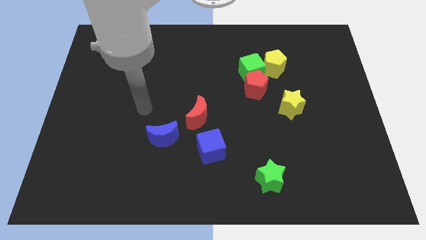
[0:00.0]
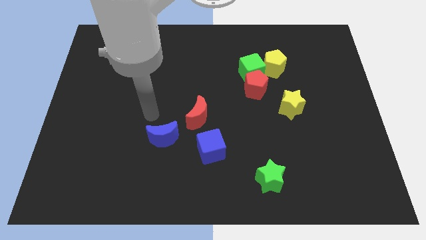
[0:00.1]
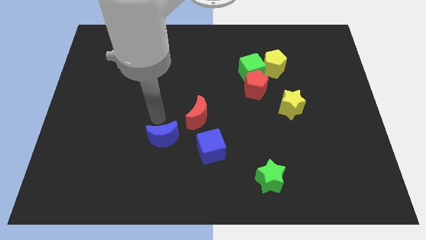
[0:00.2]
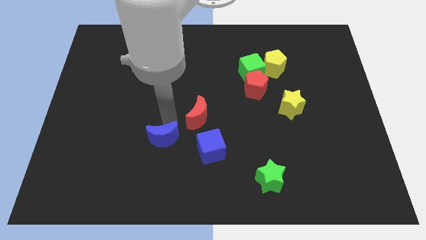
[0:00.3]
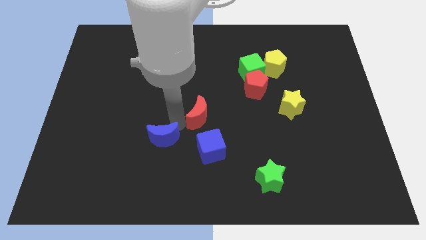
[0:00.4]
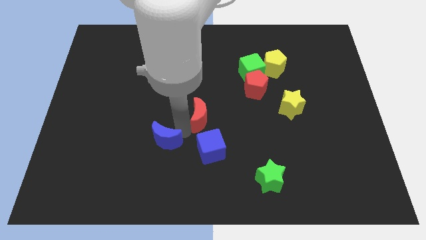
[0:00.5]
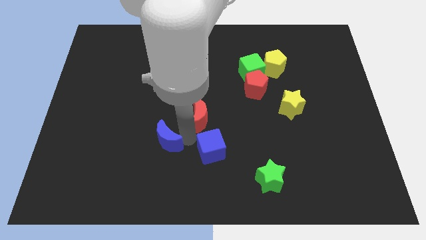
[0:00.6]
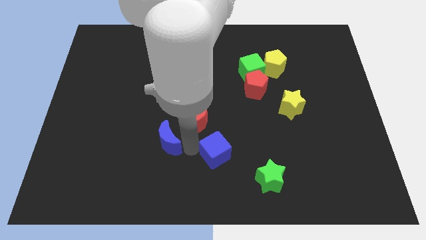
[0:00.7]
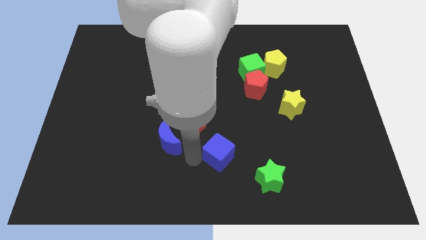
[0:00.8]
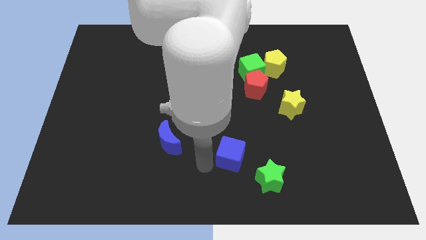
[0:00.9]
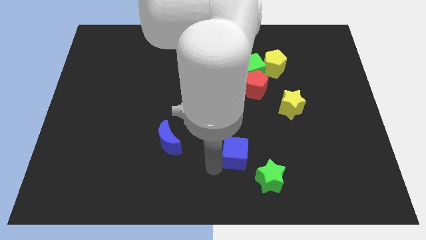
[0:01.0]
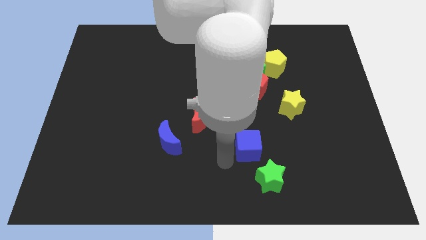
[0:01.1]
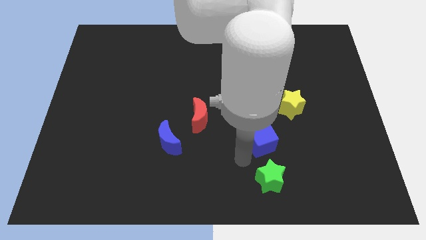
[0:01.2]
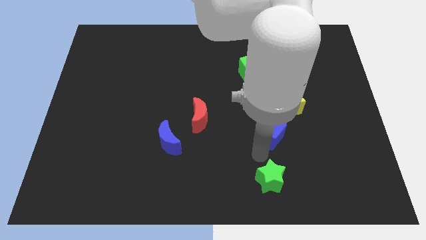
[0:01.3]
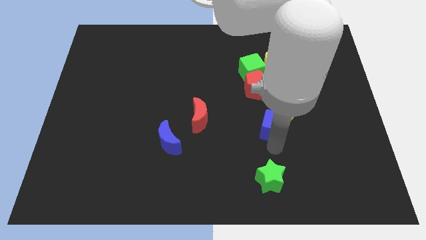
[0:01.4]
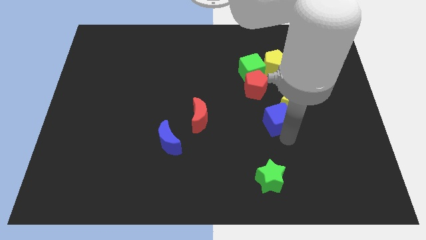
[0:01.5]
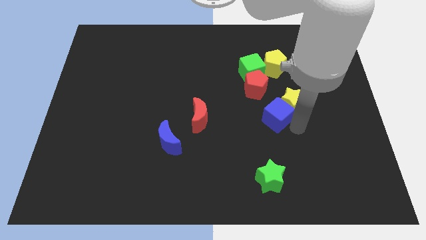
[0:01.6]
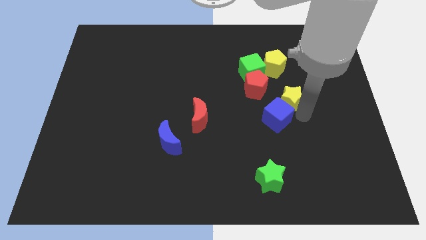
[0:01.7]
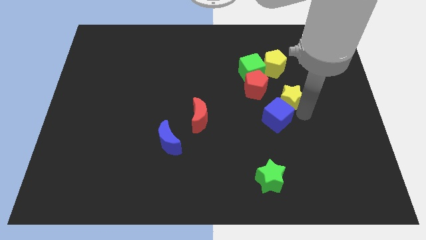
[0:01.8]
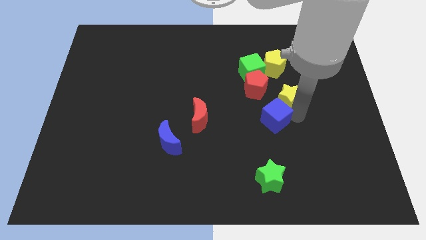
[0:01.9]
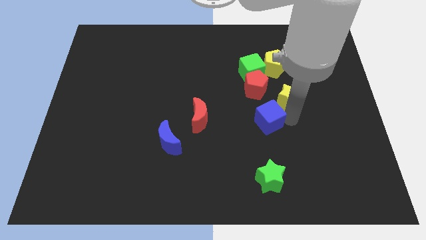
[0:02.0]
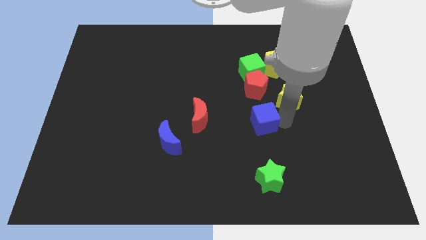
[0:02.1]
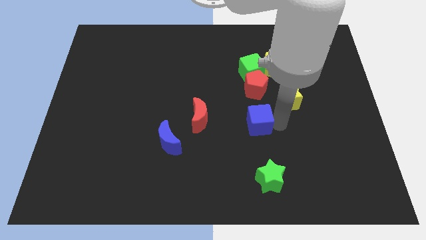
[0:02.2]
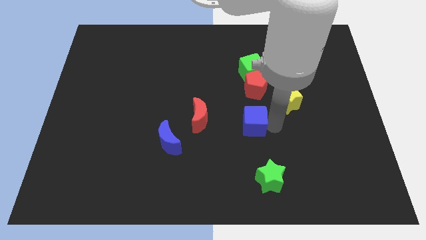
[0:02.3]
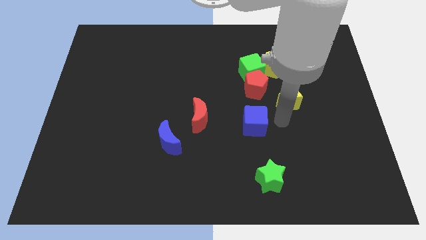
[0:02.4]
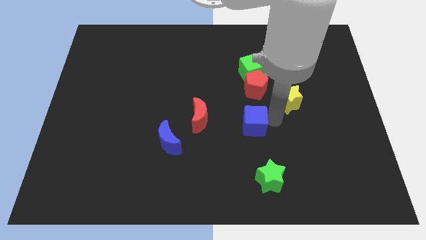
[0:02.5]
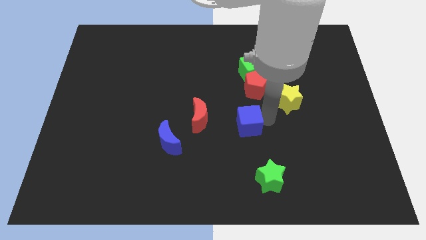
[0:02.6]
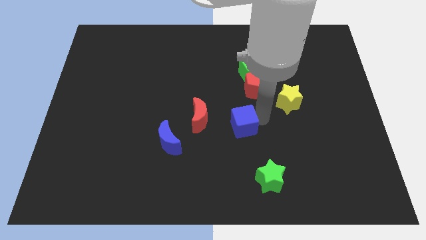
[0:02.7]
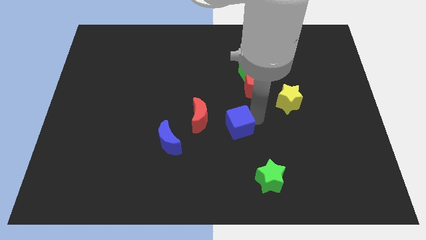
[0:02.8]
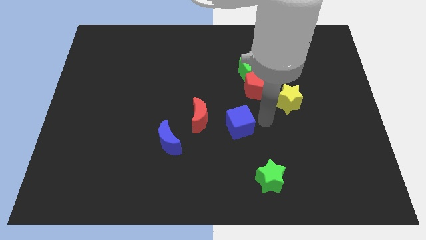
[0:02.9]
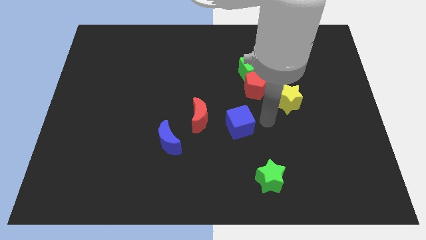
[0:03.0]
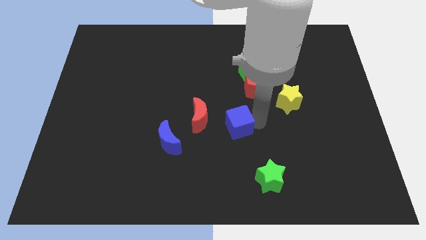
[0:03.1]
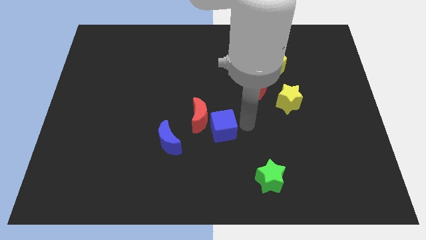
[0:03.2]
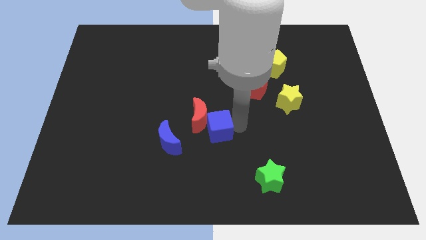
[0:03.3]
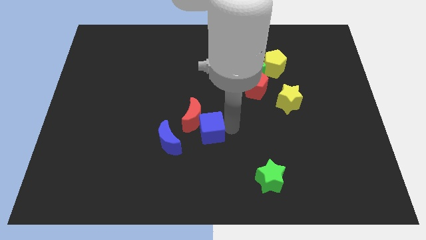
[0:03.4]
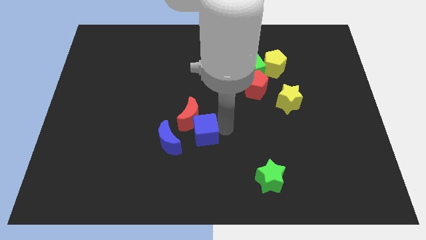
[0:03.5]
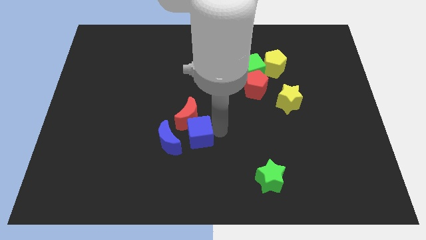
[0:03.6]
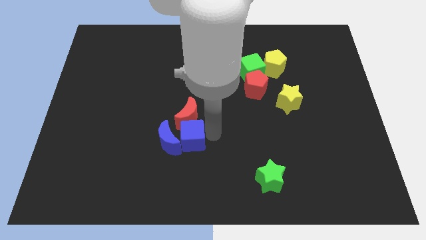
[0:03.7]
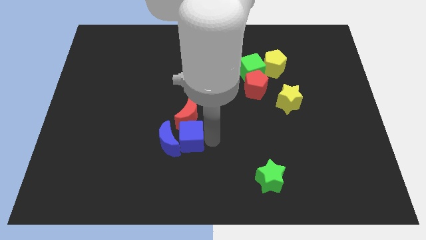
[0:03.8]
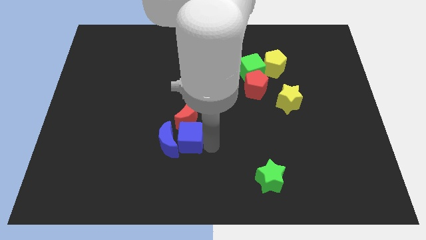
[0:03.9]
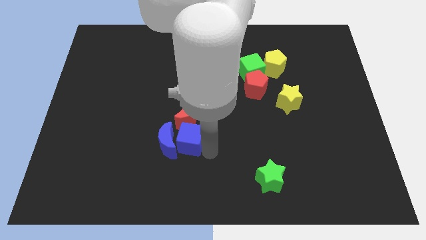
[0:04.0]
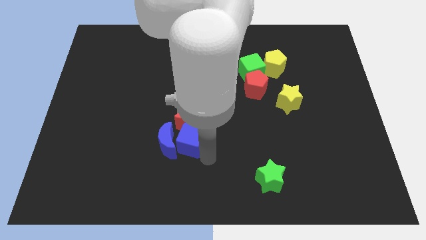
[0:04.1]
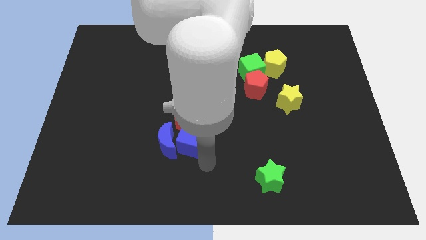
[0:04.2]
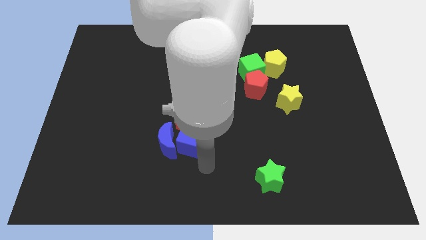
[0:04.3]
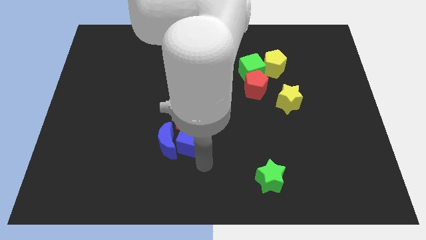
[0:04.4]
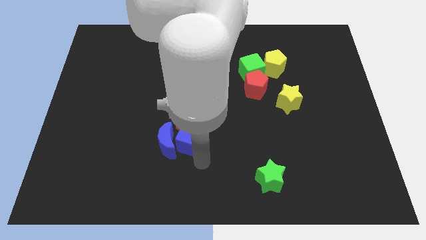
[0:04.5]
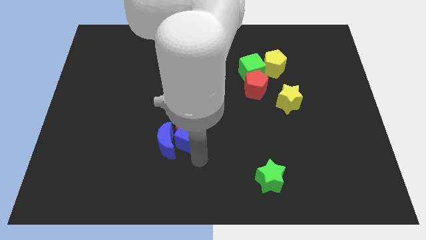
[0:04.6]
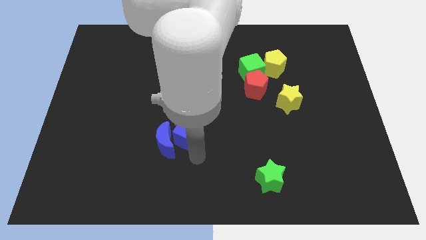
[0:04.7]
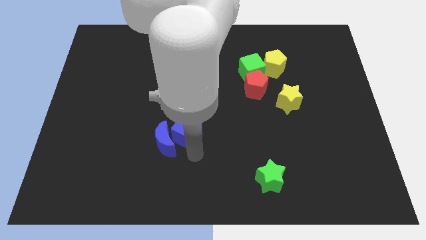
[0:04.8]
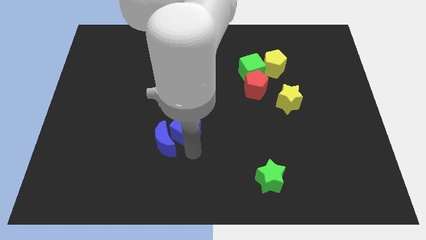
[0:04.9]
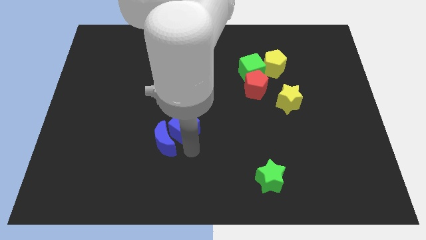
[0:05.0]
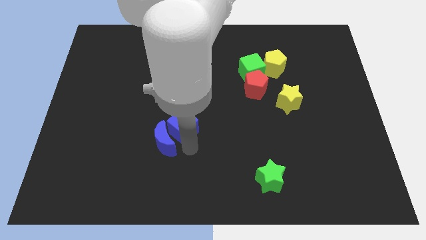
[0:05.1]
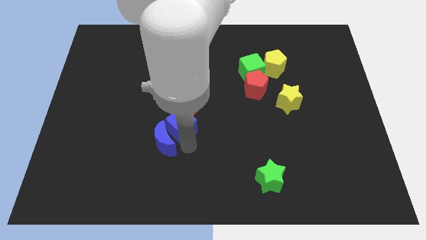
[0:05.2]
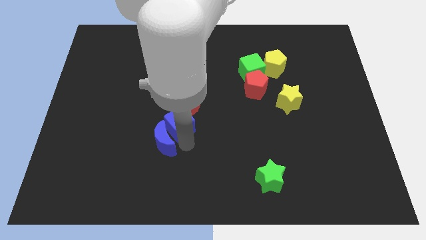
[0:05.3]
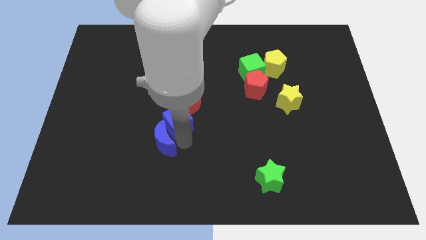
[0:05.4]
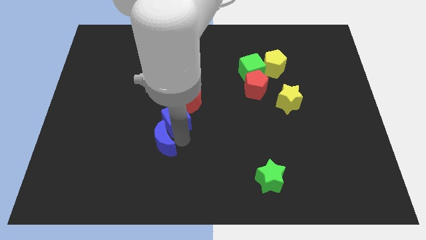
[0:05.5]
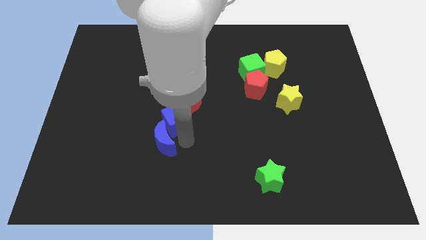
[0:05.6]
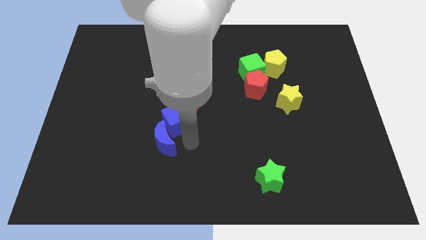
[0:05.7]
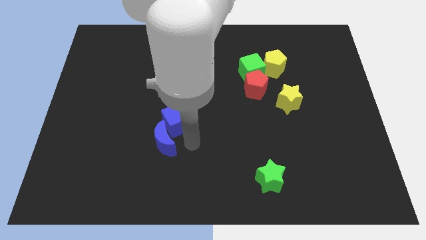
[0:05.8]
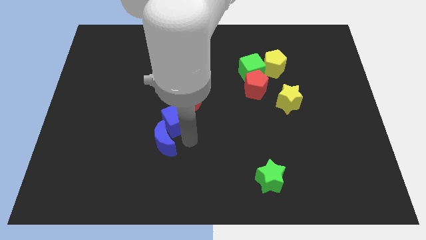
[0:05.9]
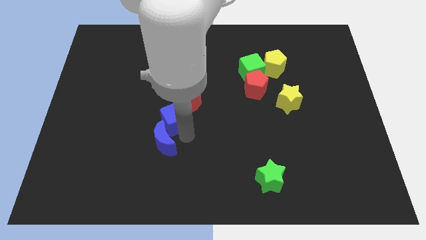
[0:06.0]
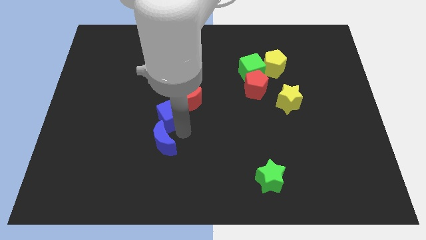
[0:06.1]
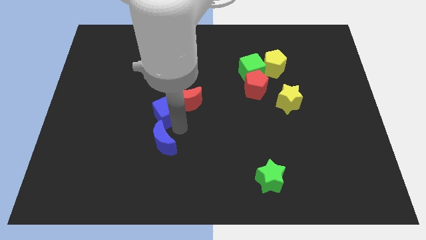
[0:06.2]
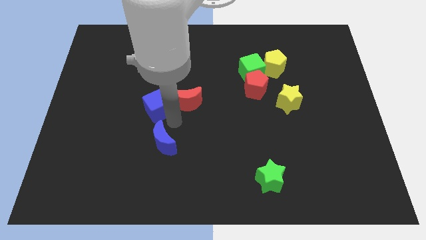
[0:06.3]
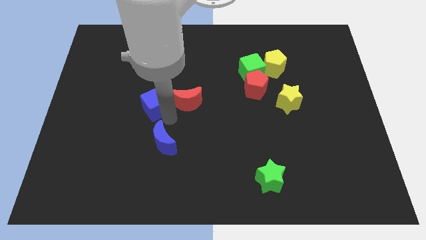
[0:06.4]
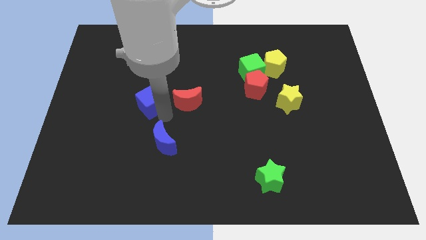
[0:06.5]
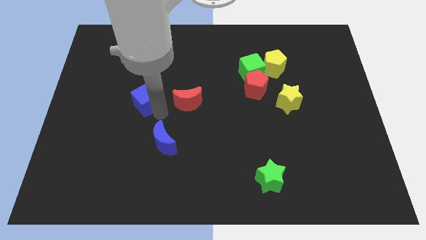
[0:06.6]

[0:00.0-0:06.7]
move the blue cube upwards and then left

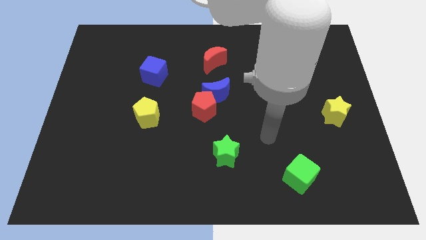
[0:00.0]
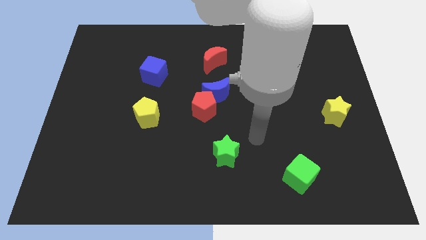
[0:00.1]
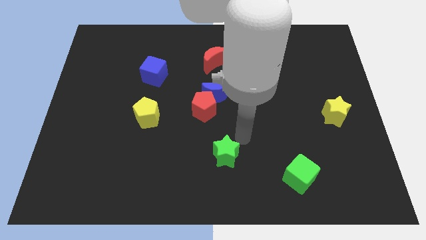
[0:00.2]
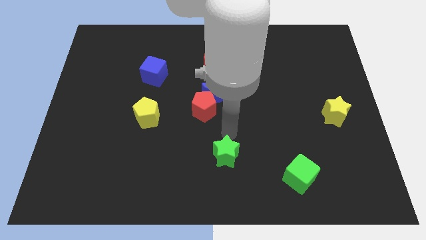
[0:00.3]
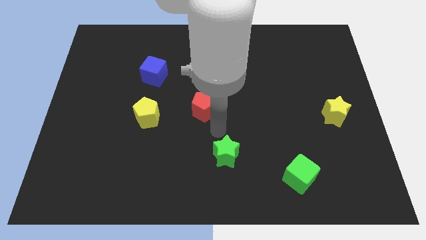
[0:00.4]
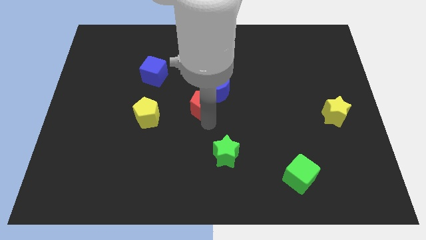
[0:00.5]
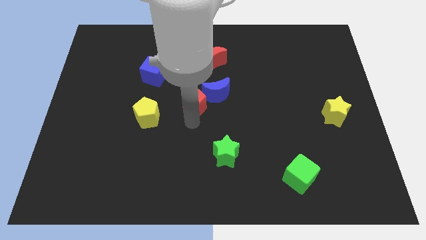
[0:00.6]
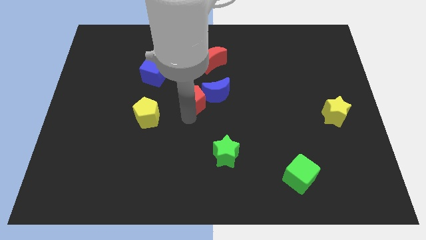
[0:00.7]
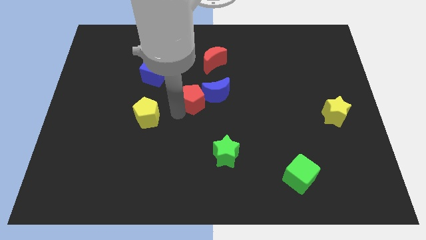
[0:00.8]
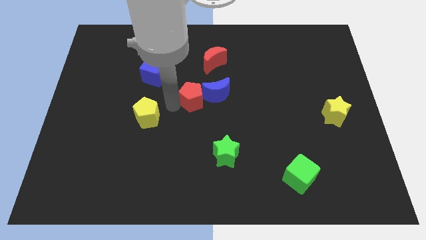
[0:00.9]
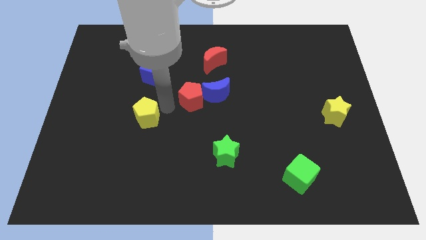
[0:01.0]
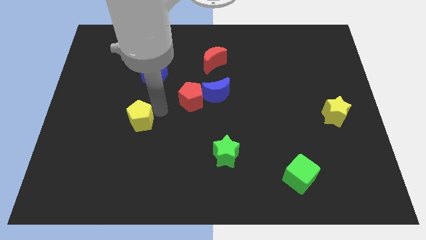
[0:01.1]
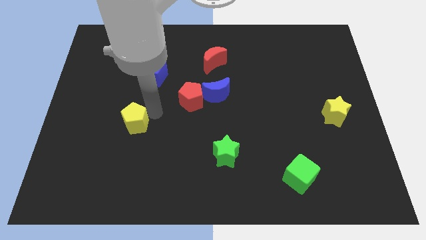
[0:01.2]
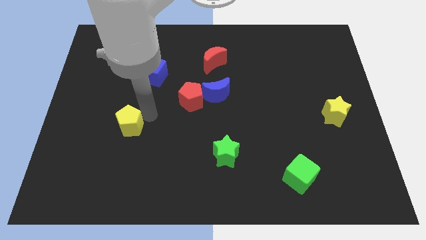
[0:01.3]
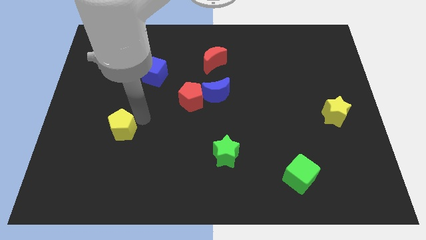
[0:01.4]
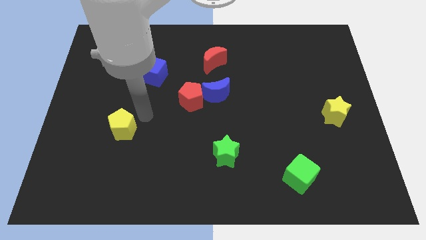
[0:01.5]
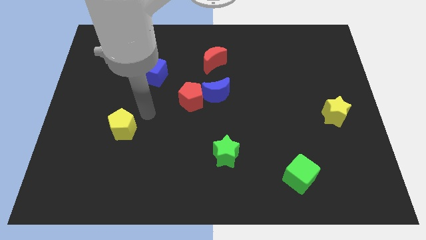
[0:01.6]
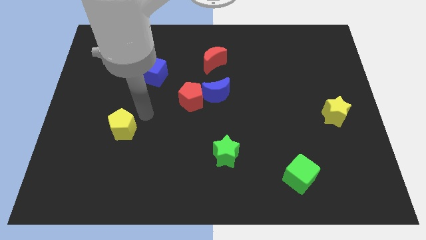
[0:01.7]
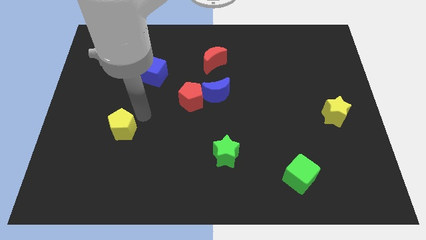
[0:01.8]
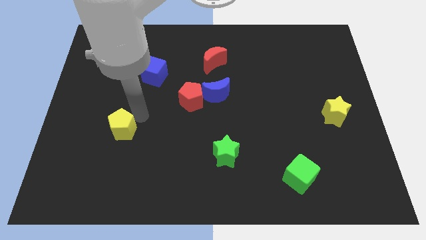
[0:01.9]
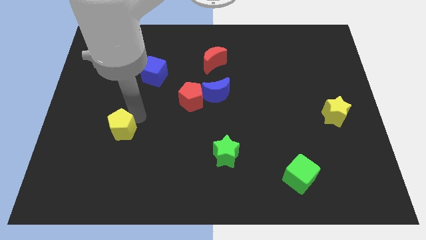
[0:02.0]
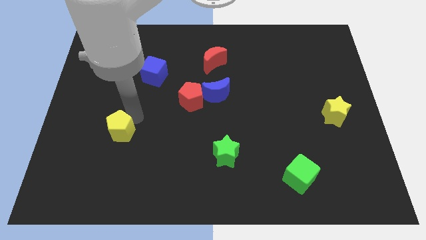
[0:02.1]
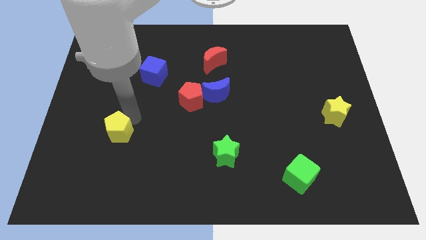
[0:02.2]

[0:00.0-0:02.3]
slightly slide the yellow pentagon diagonally down and left
